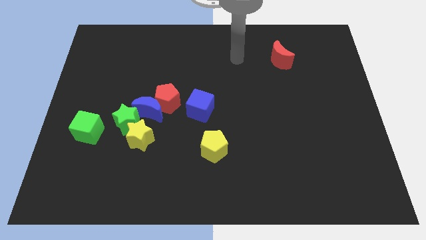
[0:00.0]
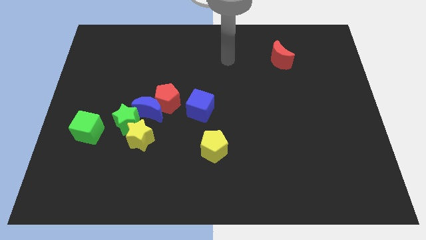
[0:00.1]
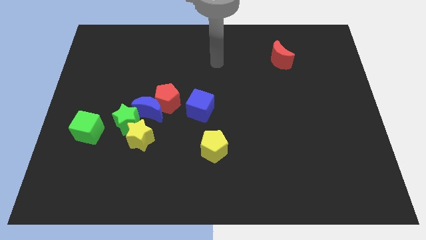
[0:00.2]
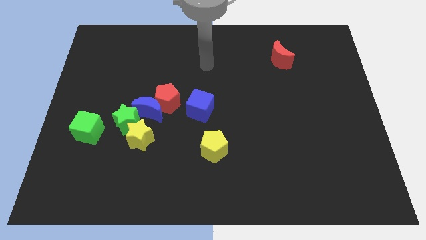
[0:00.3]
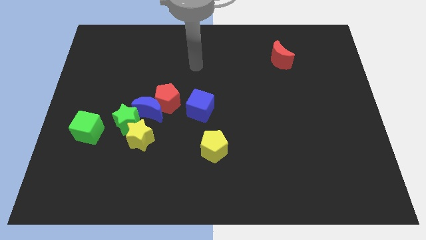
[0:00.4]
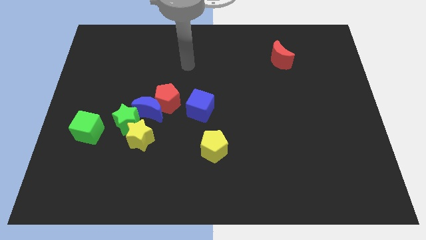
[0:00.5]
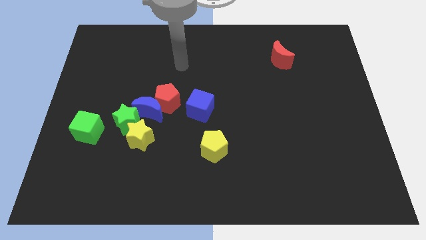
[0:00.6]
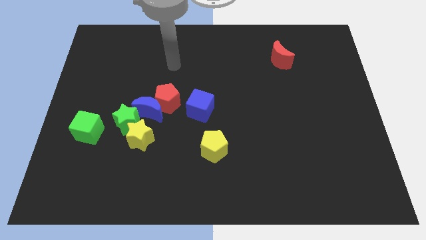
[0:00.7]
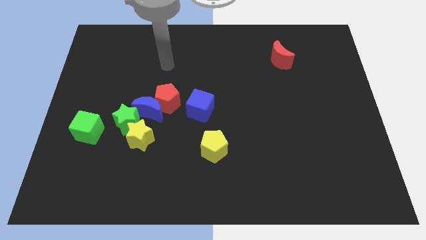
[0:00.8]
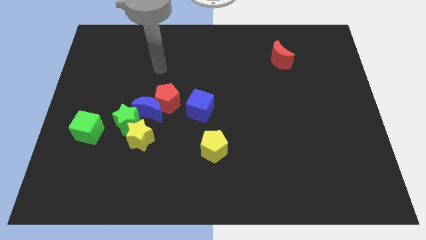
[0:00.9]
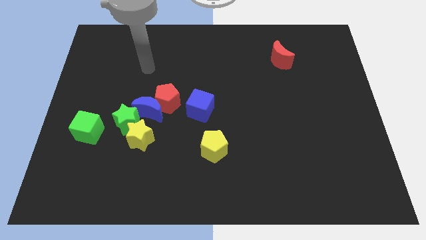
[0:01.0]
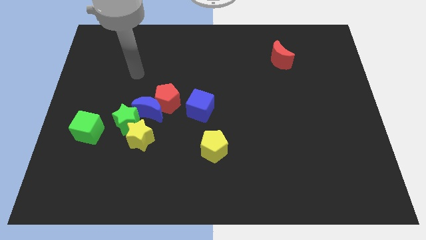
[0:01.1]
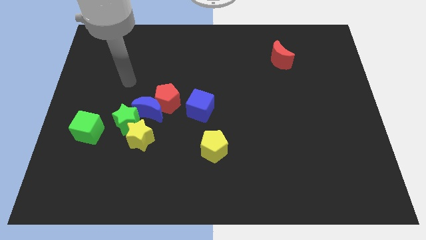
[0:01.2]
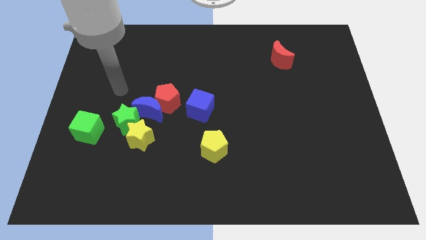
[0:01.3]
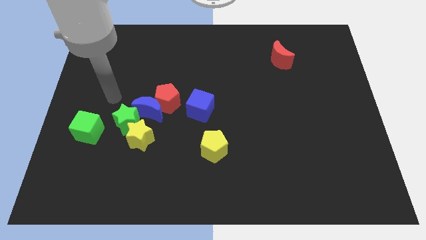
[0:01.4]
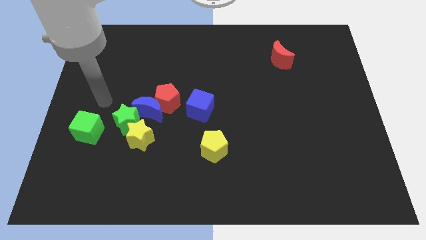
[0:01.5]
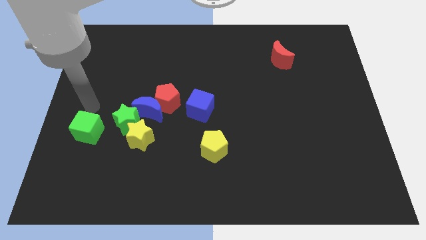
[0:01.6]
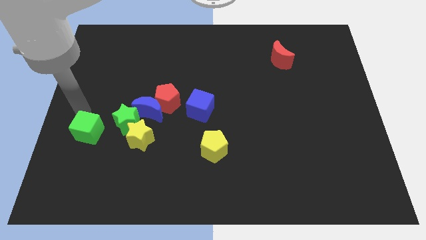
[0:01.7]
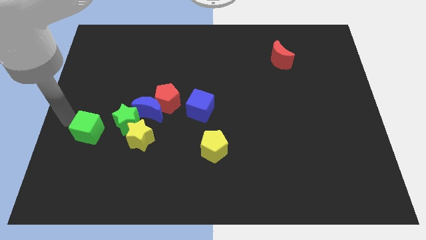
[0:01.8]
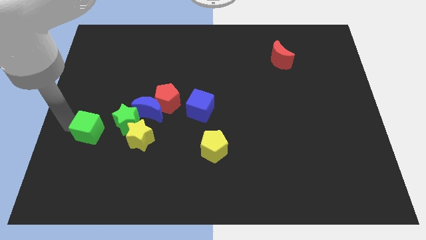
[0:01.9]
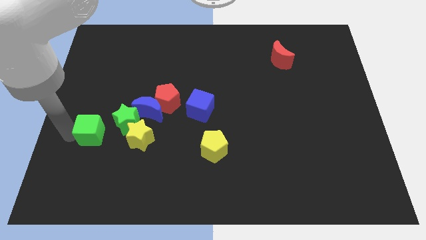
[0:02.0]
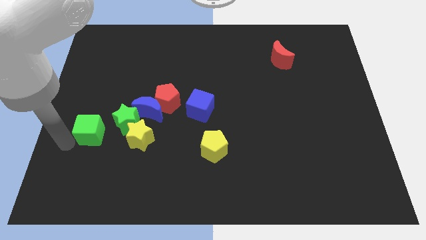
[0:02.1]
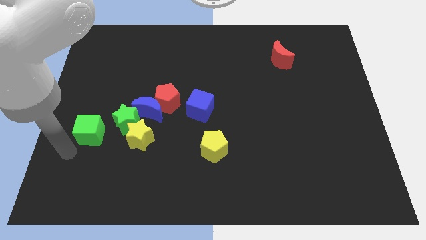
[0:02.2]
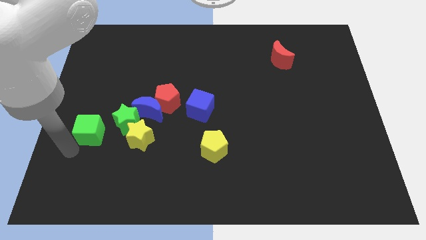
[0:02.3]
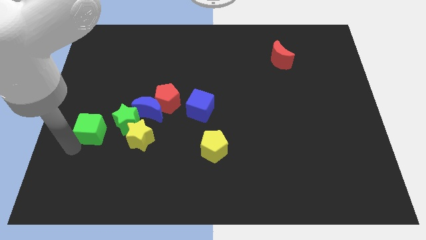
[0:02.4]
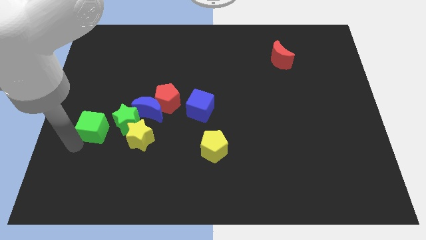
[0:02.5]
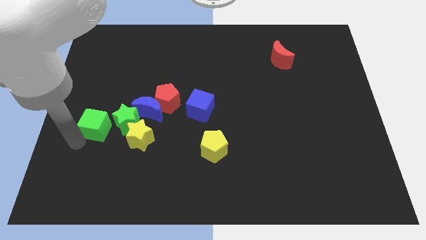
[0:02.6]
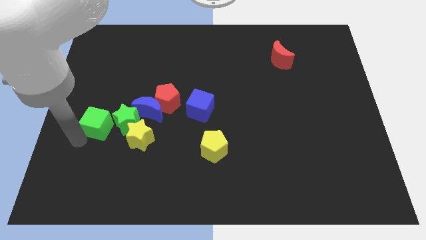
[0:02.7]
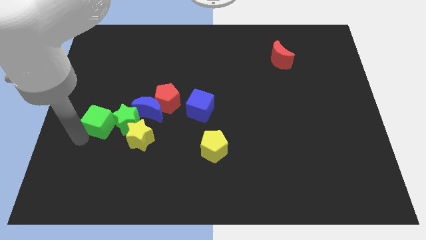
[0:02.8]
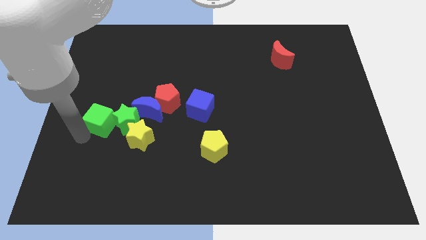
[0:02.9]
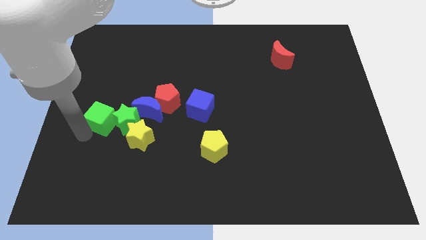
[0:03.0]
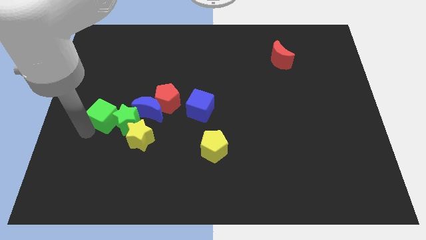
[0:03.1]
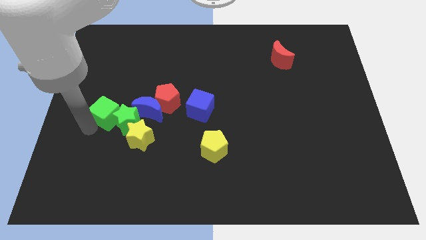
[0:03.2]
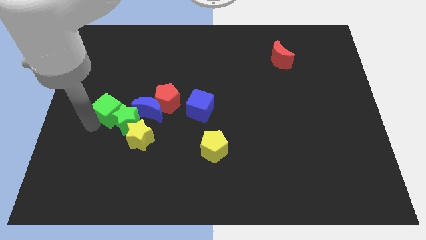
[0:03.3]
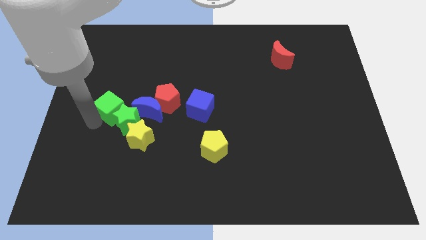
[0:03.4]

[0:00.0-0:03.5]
move the green cube upwards and then right a bit

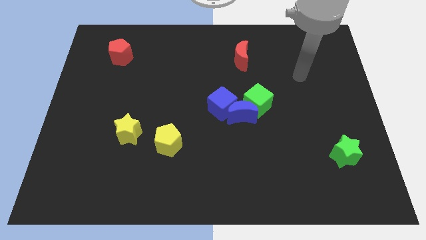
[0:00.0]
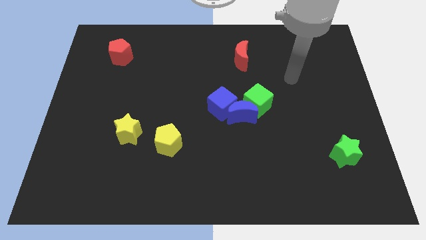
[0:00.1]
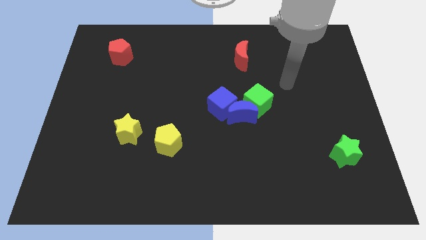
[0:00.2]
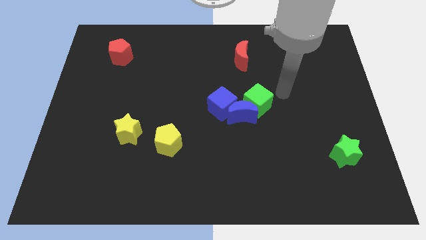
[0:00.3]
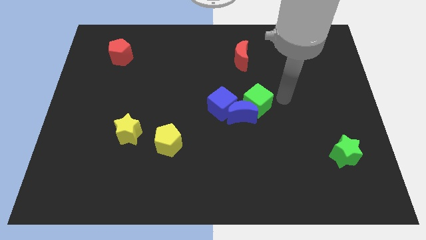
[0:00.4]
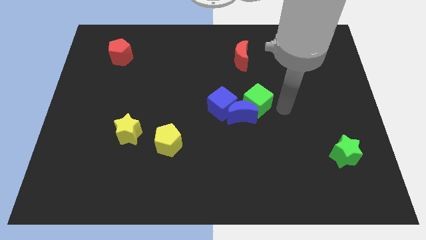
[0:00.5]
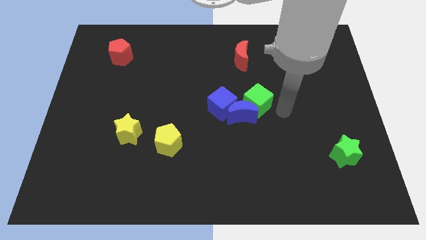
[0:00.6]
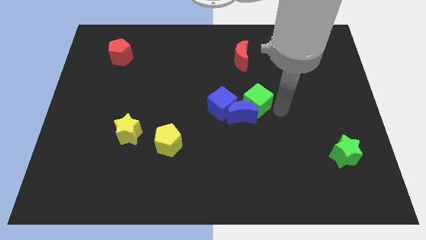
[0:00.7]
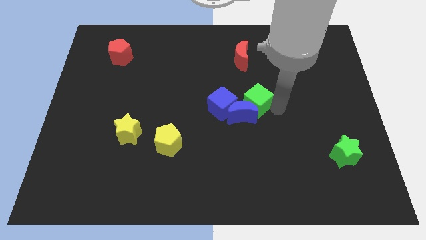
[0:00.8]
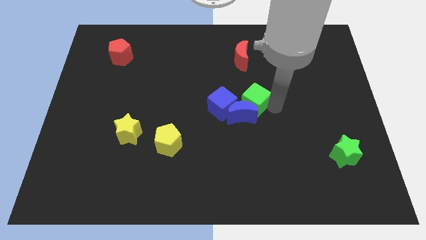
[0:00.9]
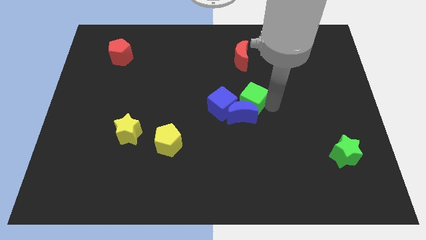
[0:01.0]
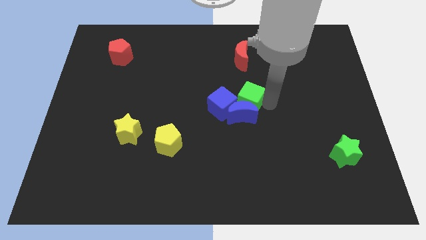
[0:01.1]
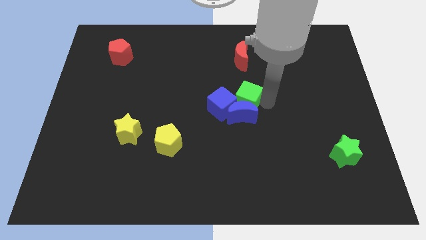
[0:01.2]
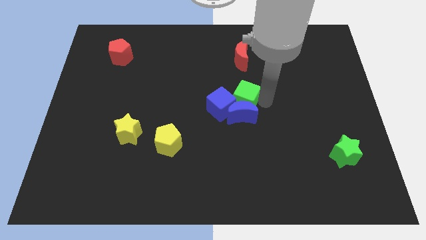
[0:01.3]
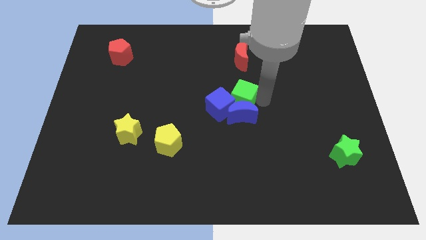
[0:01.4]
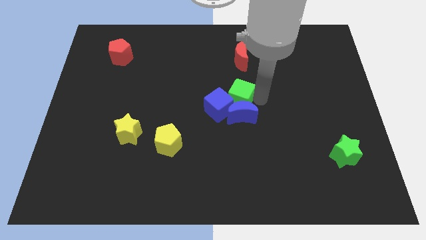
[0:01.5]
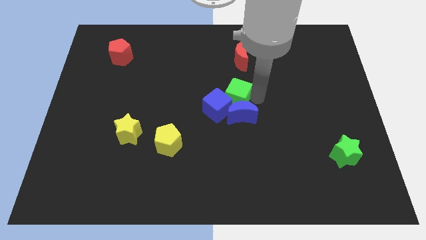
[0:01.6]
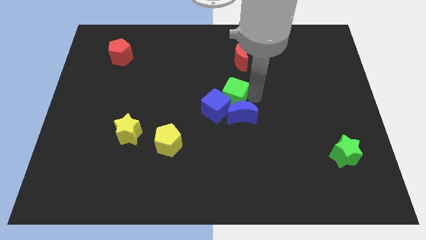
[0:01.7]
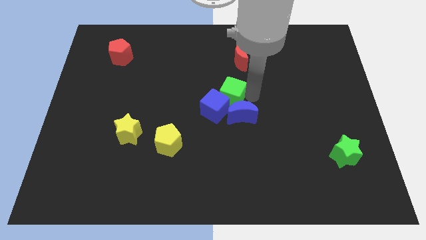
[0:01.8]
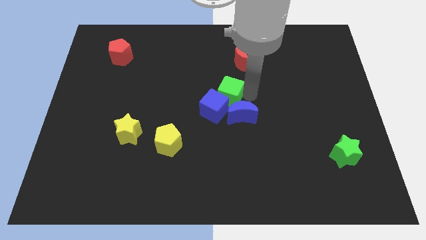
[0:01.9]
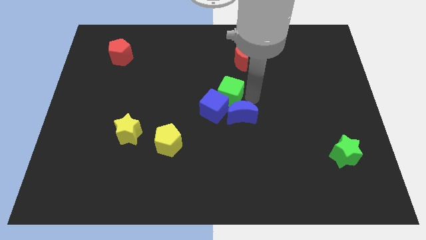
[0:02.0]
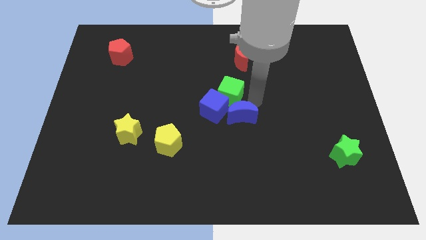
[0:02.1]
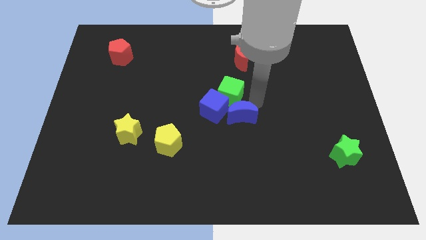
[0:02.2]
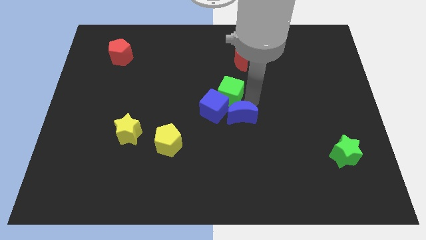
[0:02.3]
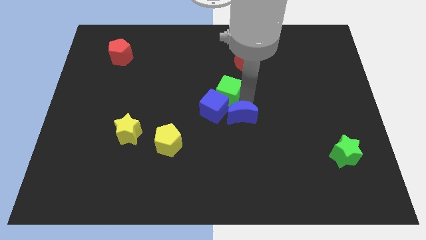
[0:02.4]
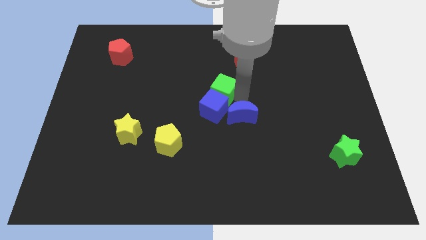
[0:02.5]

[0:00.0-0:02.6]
slightly slide the green cube left

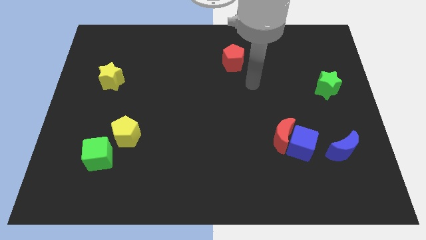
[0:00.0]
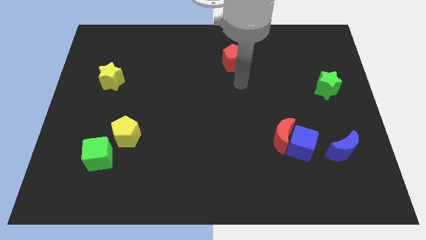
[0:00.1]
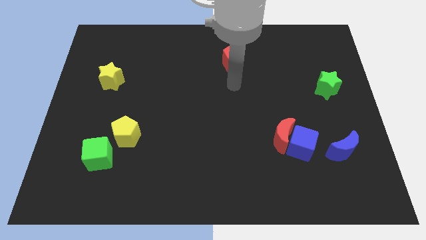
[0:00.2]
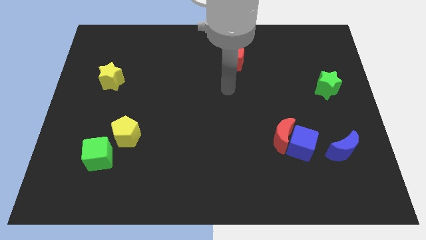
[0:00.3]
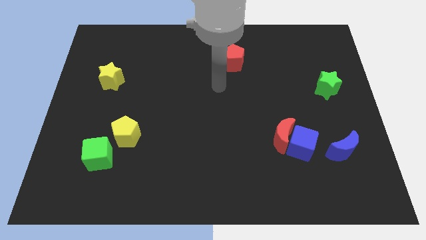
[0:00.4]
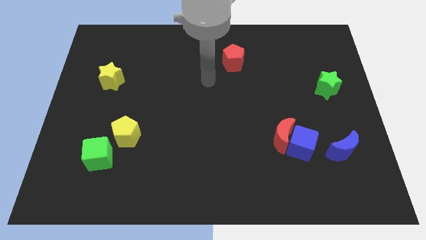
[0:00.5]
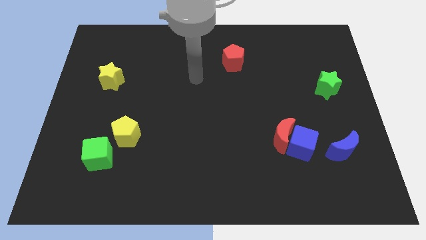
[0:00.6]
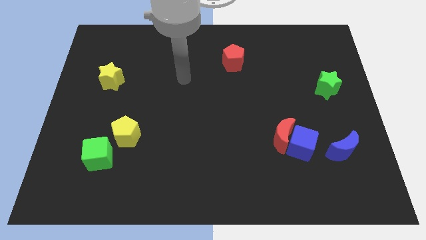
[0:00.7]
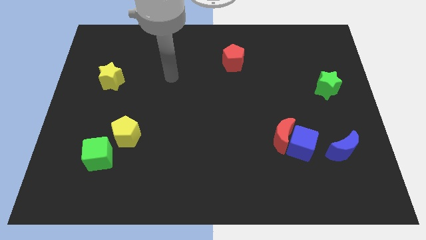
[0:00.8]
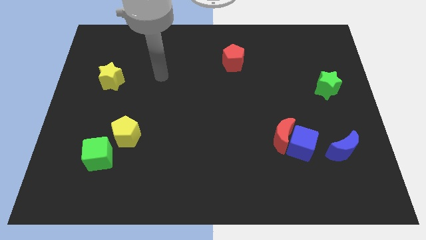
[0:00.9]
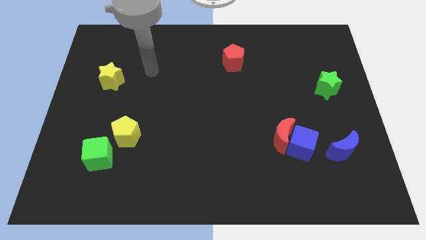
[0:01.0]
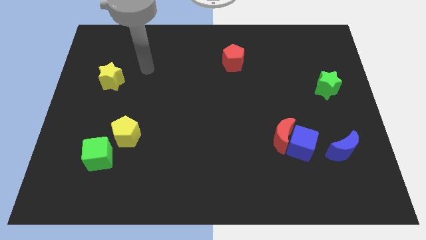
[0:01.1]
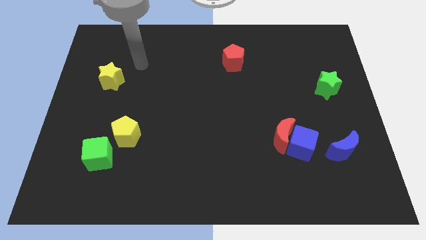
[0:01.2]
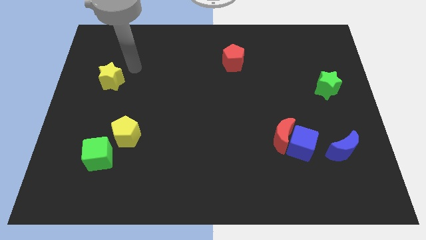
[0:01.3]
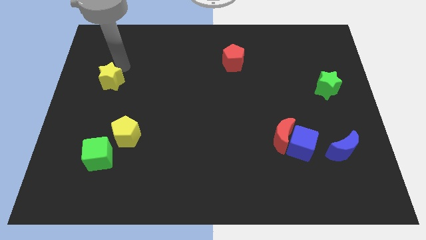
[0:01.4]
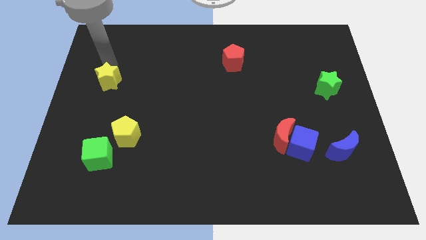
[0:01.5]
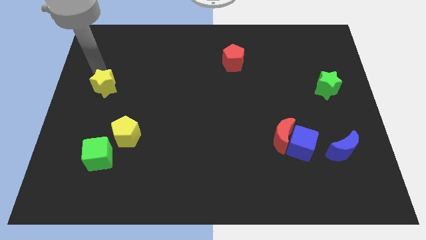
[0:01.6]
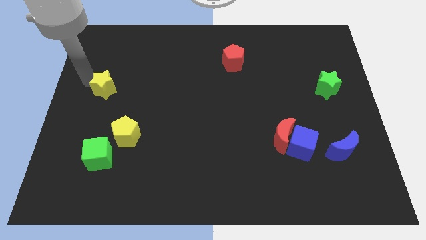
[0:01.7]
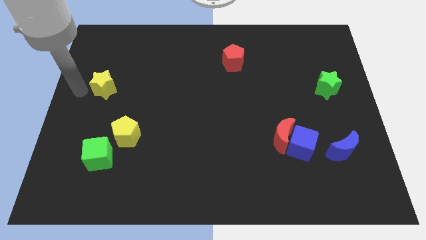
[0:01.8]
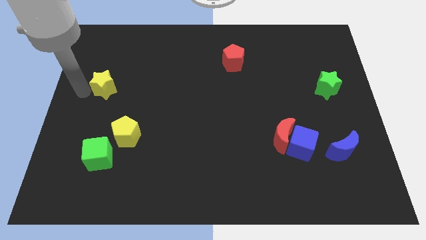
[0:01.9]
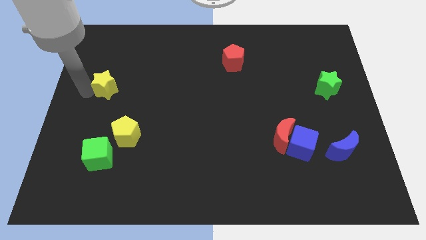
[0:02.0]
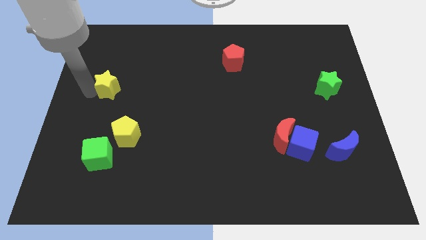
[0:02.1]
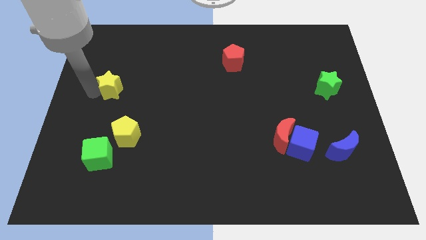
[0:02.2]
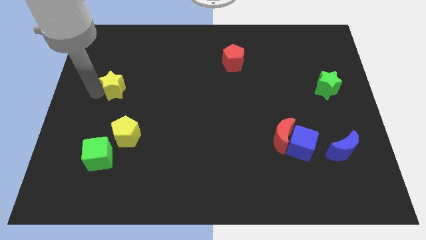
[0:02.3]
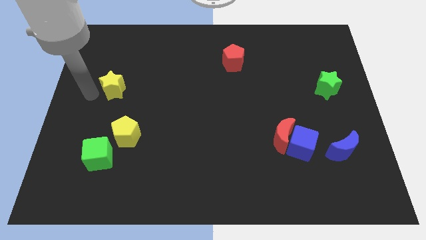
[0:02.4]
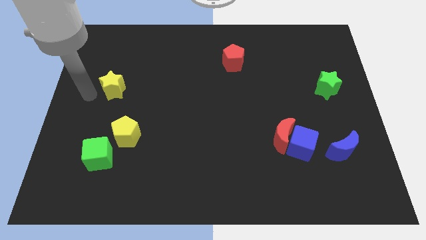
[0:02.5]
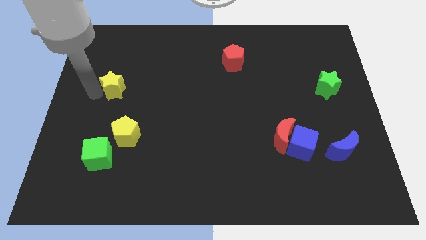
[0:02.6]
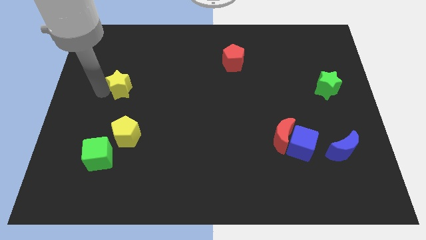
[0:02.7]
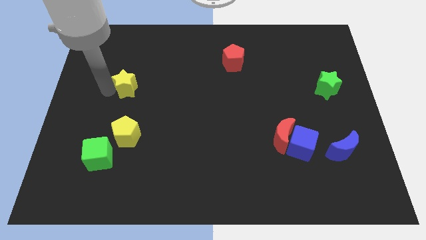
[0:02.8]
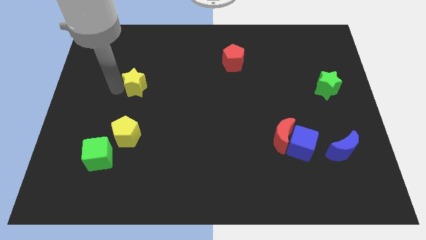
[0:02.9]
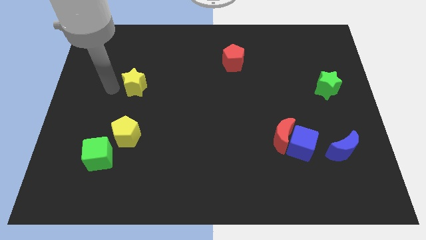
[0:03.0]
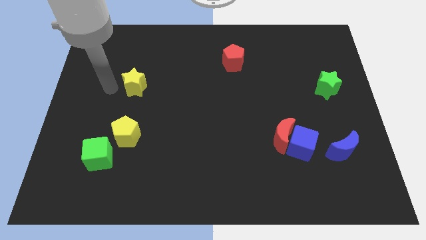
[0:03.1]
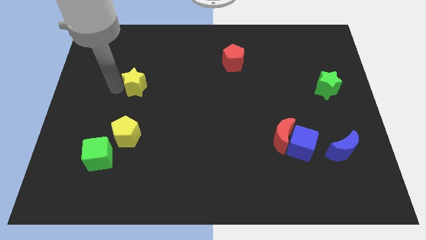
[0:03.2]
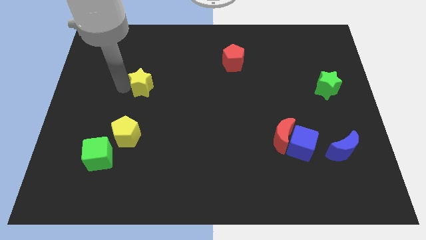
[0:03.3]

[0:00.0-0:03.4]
move the yellow star to the right a little
